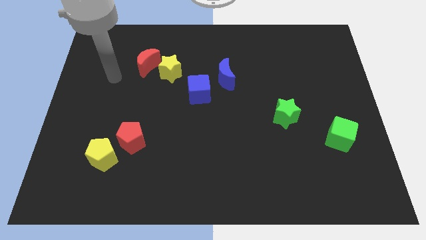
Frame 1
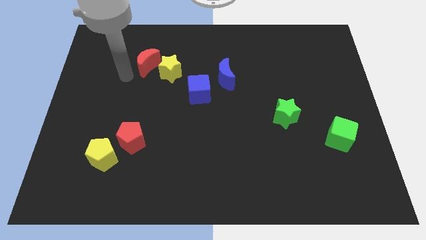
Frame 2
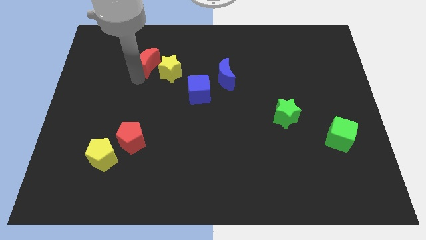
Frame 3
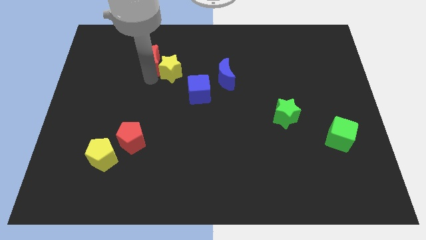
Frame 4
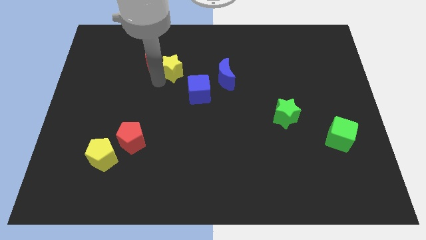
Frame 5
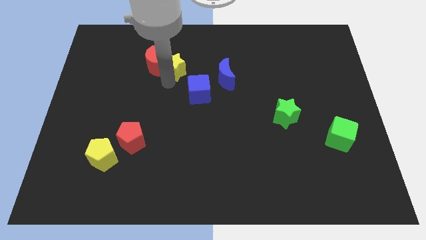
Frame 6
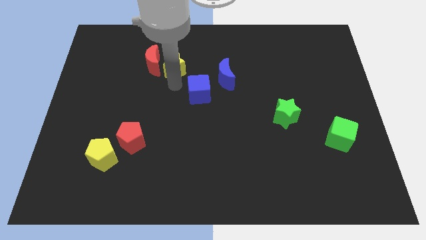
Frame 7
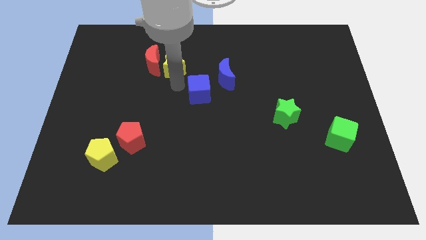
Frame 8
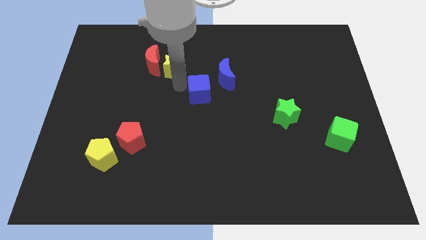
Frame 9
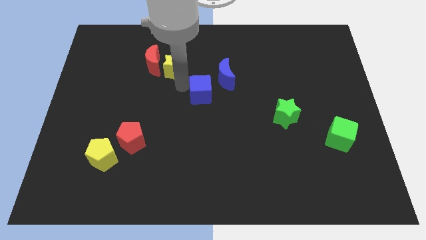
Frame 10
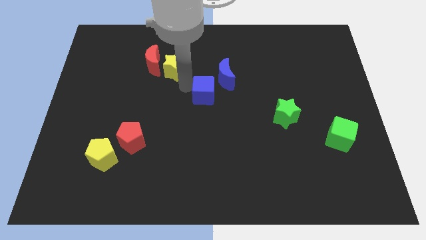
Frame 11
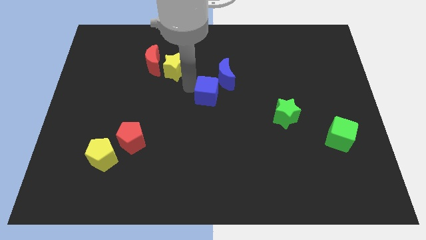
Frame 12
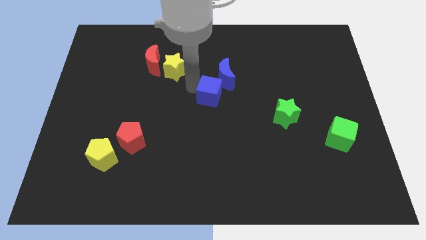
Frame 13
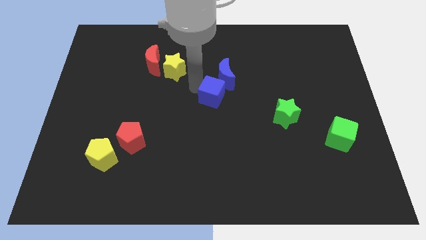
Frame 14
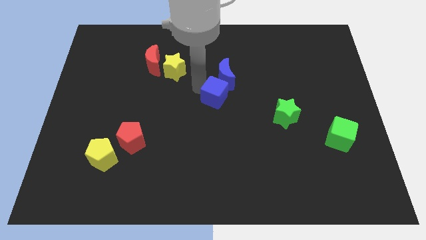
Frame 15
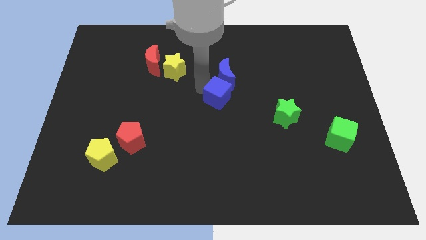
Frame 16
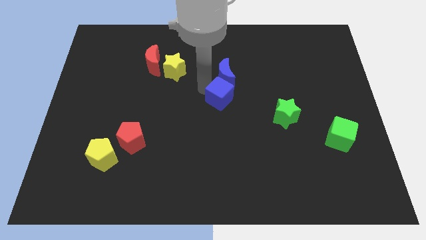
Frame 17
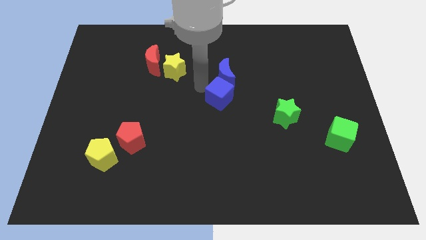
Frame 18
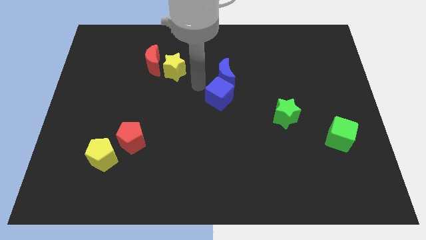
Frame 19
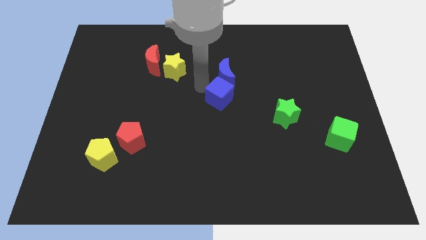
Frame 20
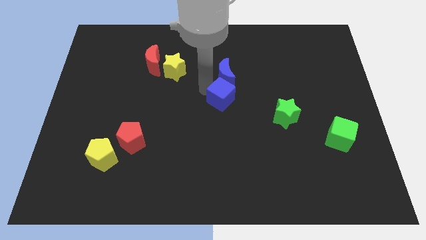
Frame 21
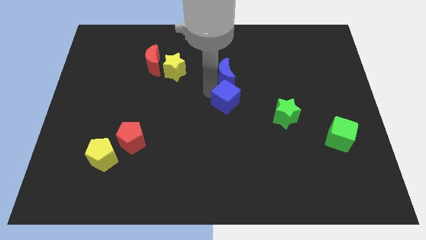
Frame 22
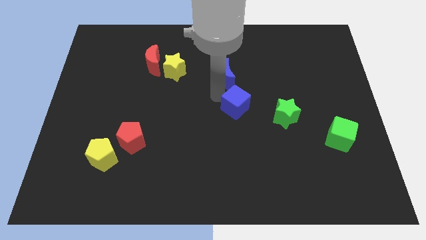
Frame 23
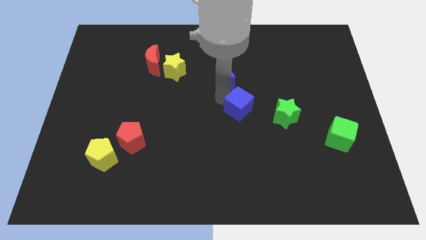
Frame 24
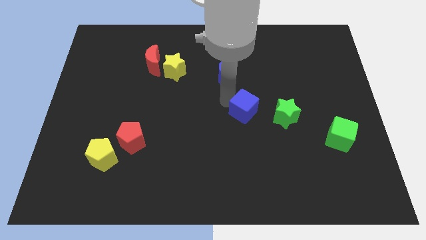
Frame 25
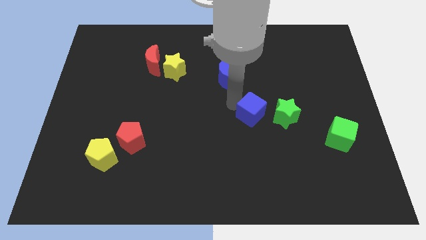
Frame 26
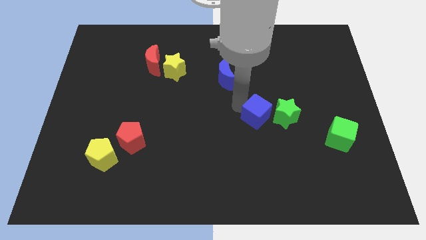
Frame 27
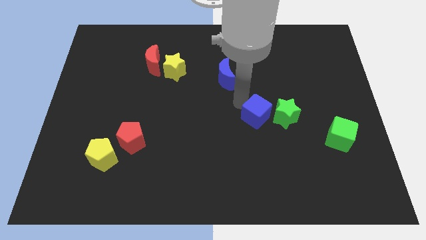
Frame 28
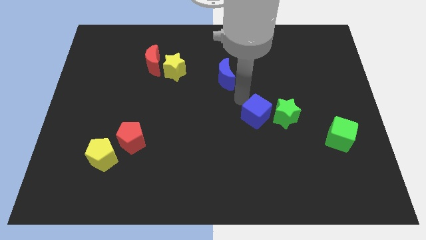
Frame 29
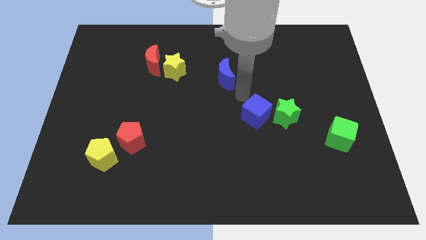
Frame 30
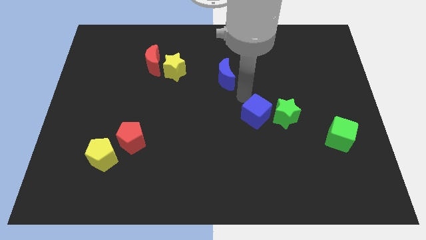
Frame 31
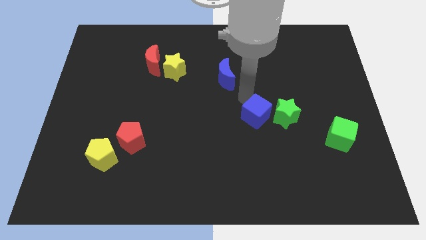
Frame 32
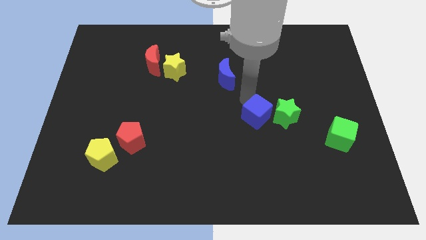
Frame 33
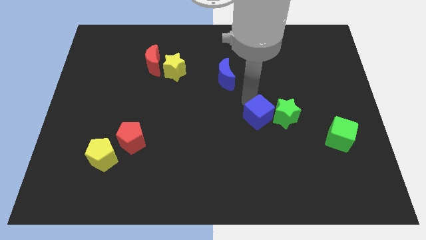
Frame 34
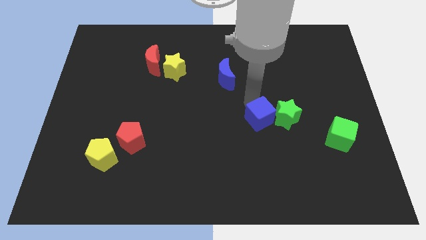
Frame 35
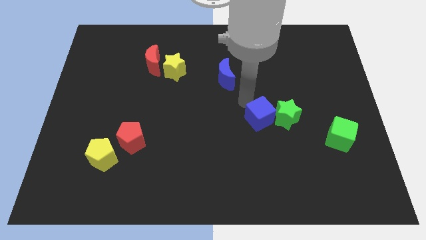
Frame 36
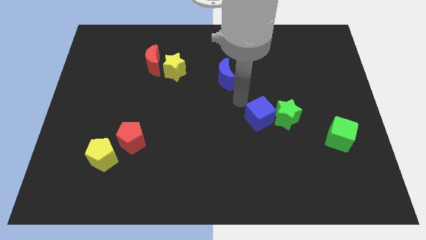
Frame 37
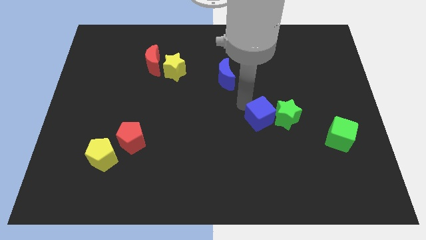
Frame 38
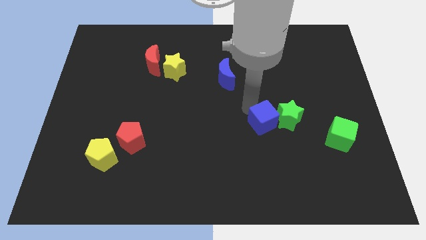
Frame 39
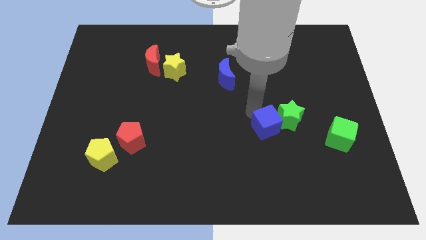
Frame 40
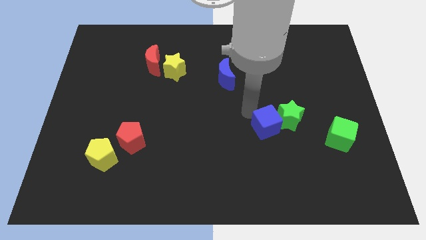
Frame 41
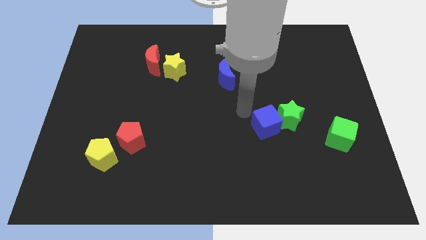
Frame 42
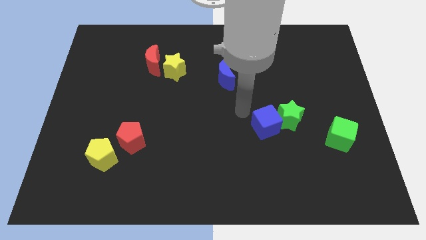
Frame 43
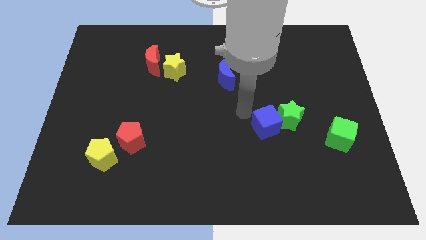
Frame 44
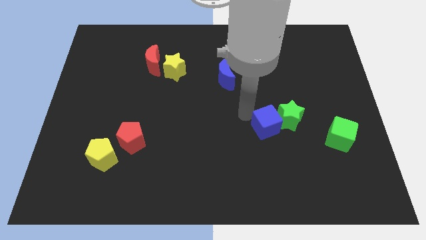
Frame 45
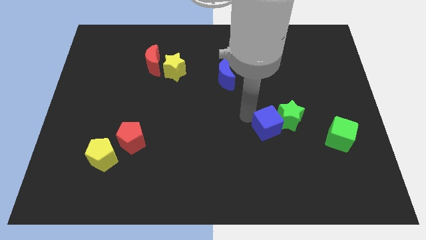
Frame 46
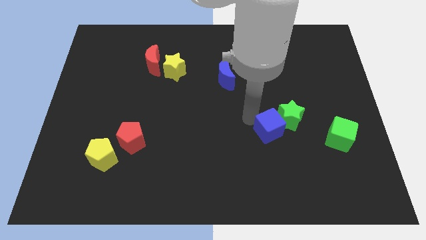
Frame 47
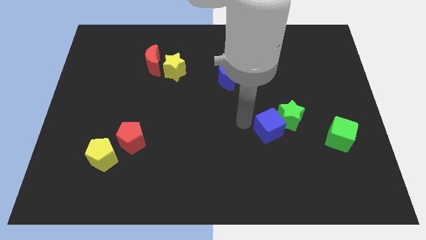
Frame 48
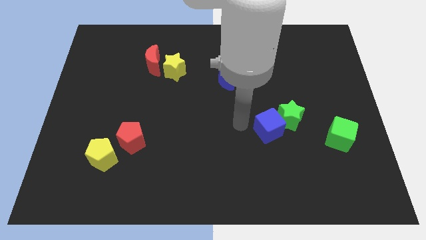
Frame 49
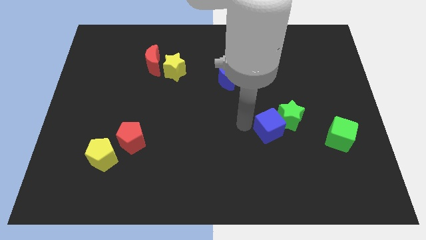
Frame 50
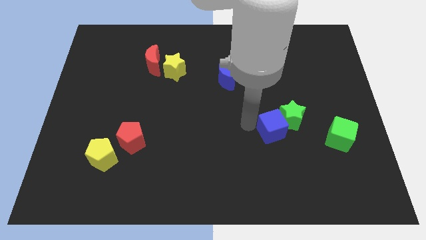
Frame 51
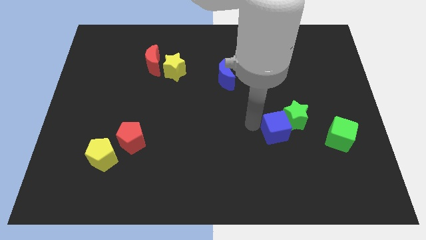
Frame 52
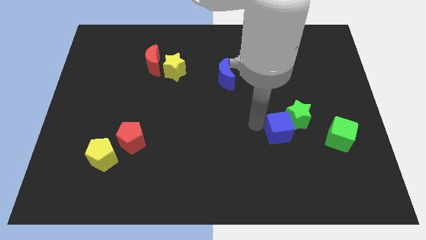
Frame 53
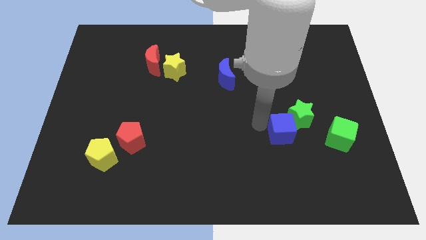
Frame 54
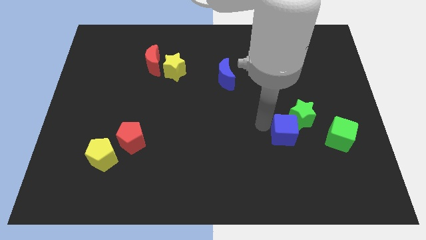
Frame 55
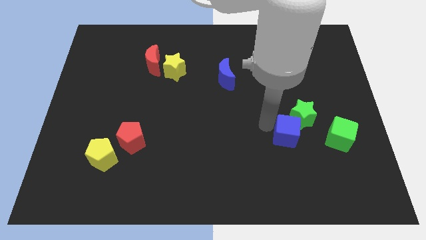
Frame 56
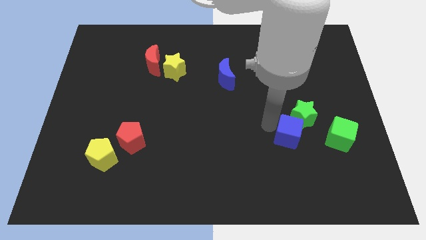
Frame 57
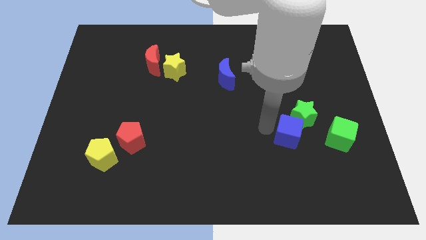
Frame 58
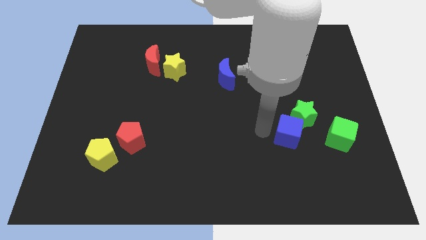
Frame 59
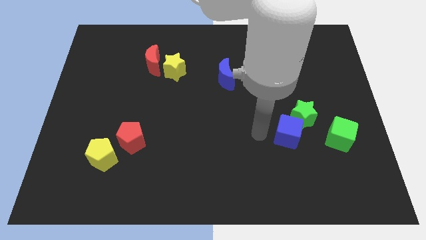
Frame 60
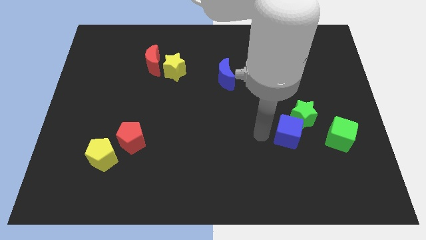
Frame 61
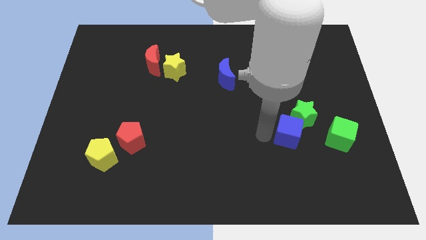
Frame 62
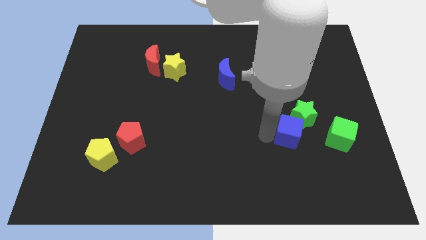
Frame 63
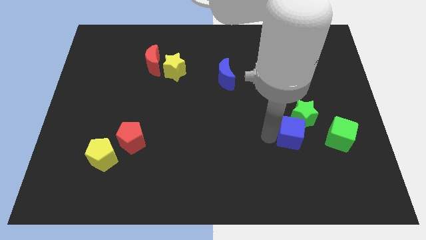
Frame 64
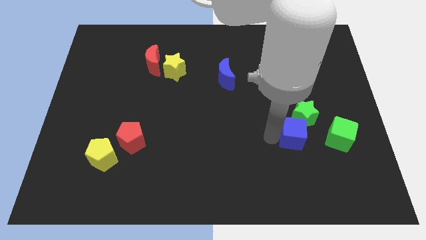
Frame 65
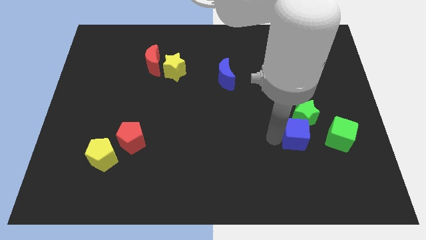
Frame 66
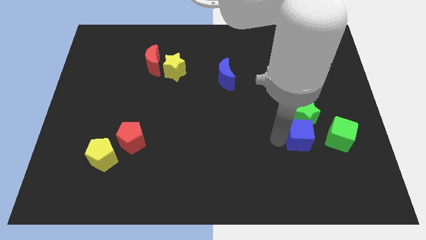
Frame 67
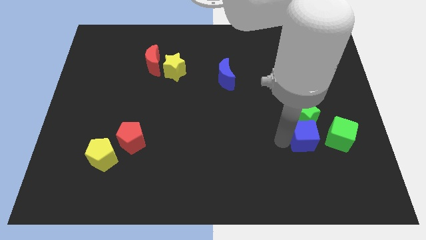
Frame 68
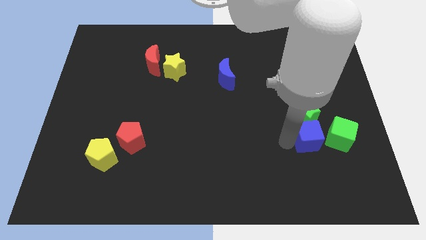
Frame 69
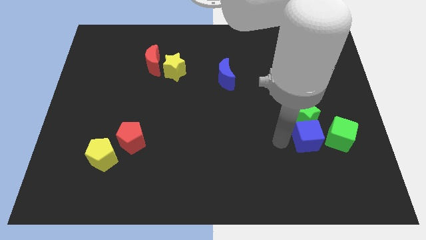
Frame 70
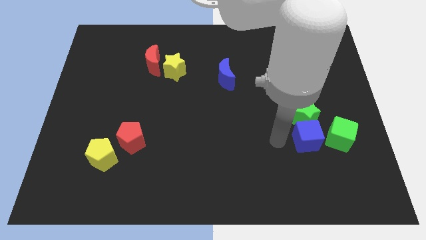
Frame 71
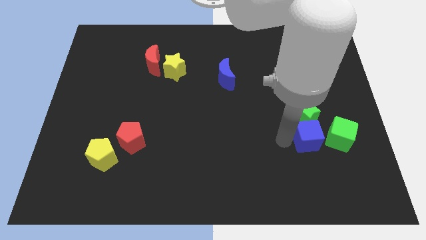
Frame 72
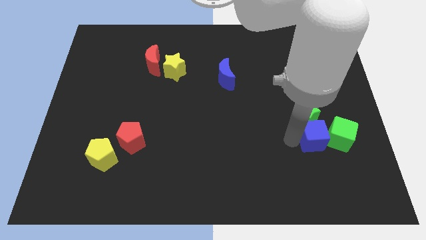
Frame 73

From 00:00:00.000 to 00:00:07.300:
move the blue cube close to the green cube

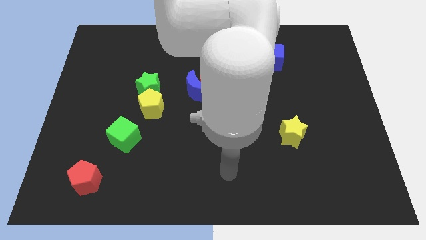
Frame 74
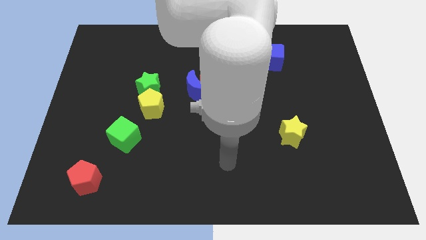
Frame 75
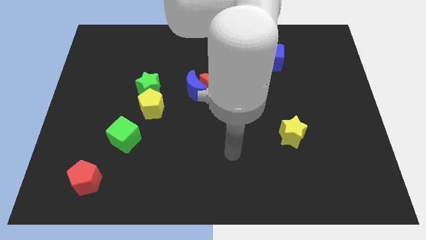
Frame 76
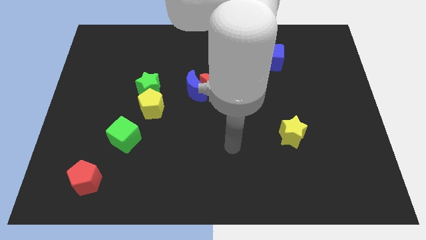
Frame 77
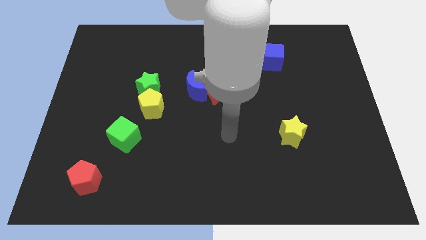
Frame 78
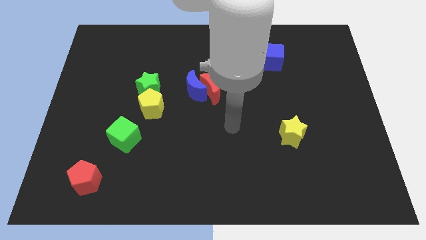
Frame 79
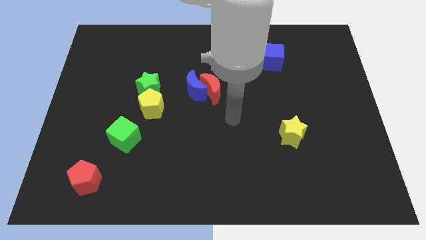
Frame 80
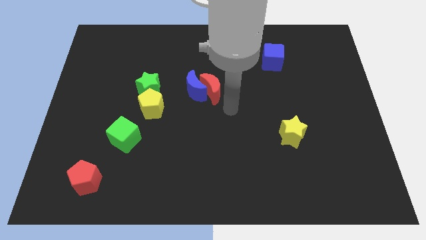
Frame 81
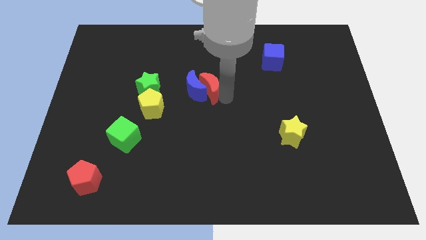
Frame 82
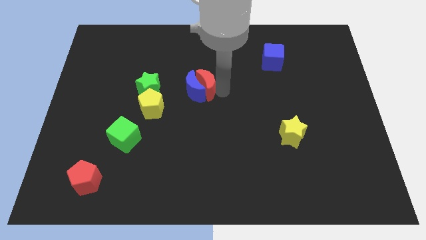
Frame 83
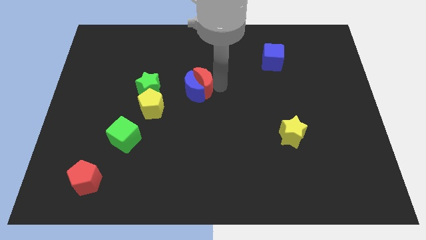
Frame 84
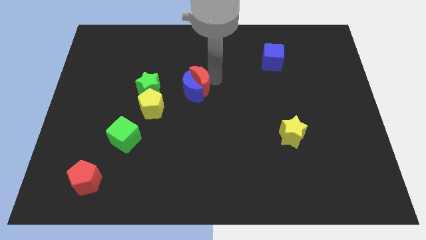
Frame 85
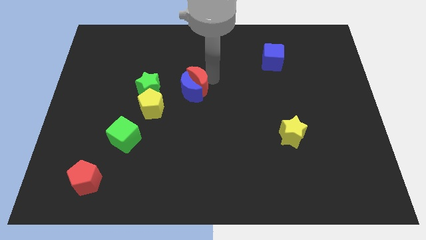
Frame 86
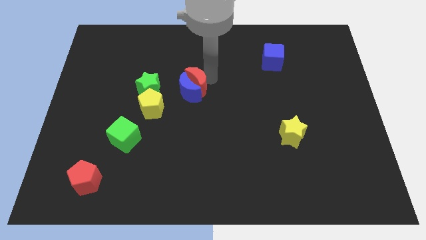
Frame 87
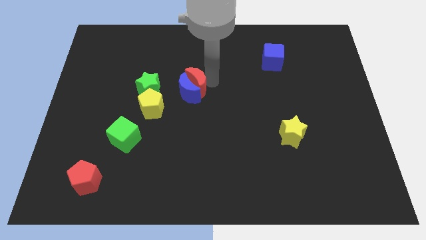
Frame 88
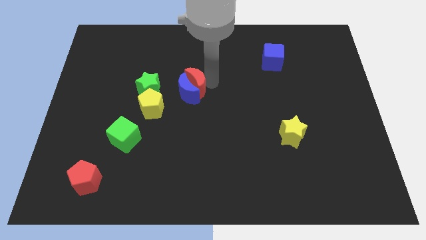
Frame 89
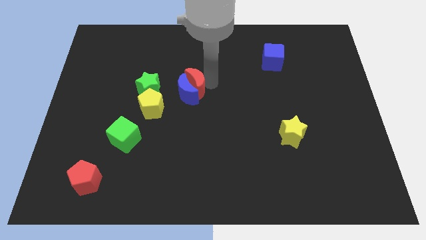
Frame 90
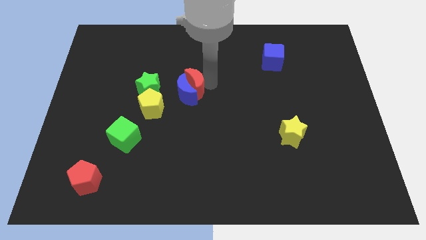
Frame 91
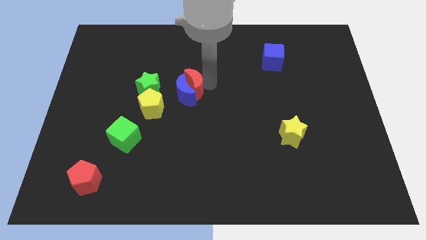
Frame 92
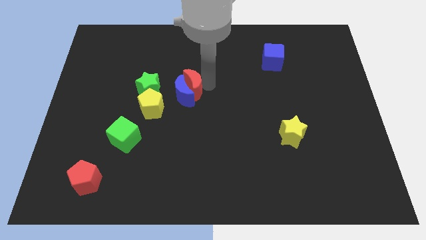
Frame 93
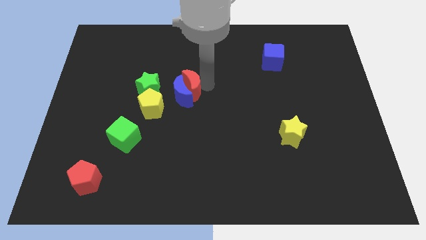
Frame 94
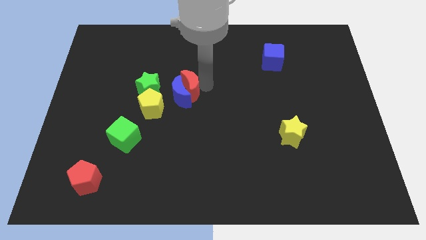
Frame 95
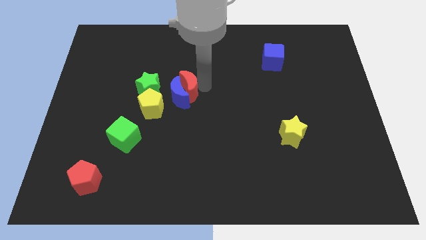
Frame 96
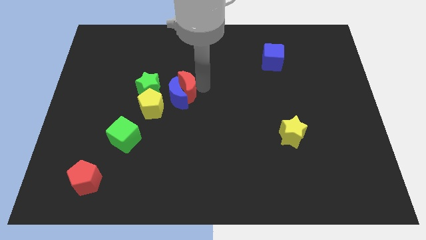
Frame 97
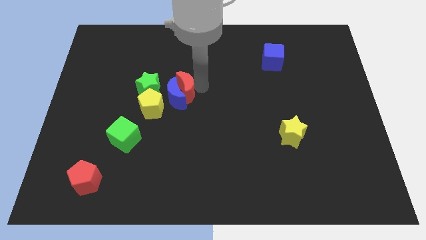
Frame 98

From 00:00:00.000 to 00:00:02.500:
move the blue moon close to the yellow pentagon
